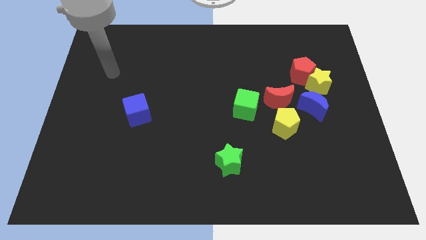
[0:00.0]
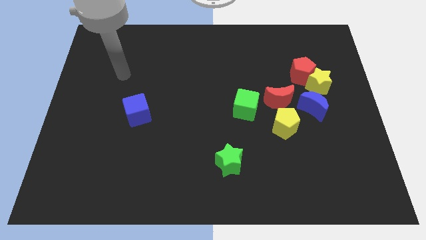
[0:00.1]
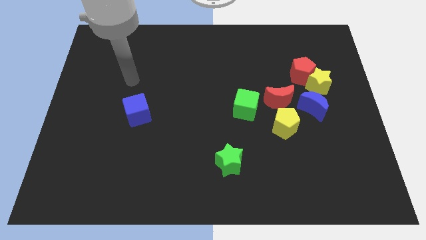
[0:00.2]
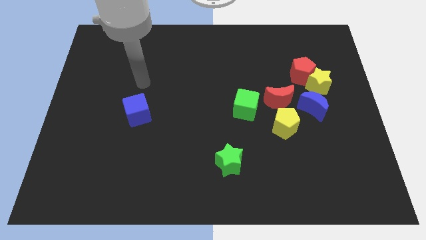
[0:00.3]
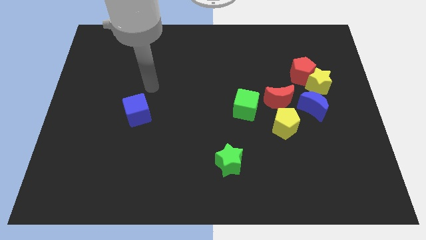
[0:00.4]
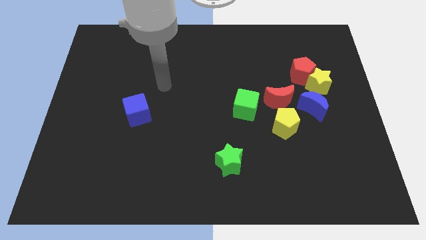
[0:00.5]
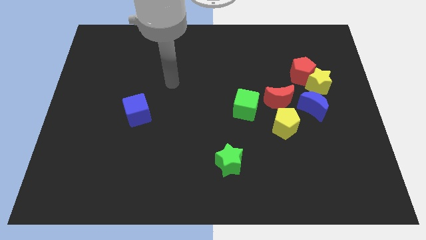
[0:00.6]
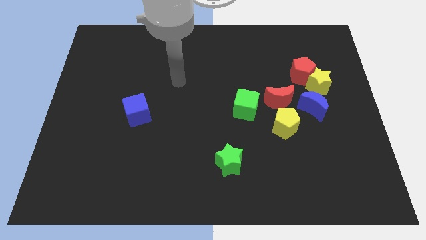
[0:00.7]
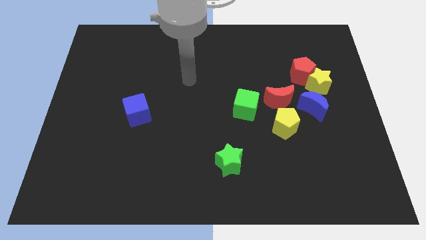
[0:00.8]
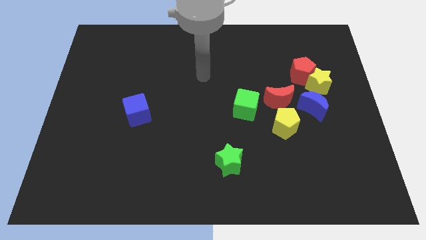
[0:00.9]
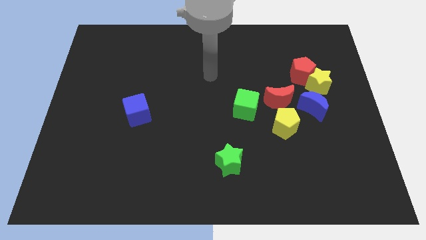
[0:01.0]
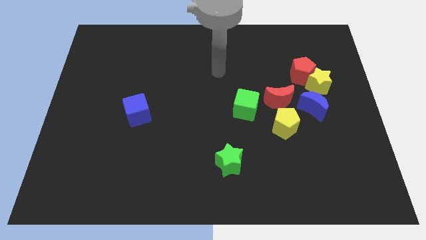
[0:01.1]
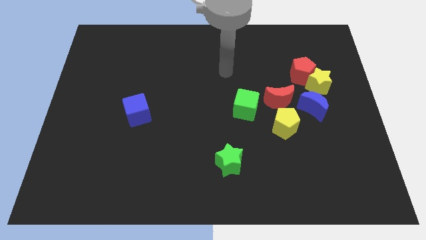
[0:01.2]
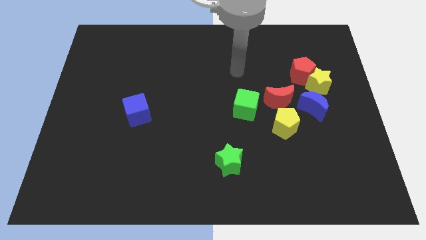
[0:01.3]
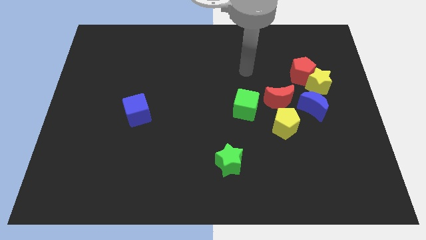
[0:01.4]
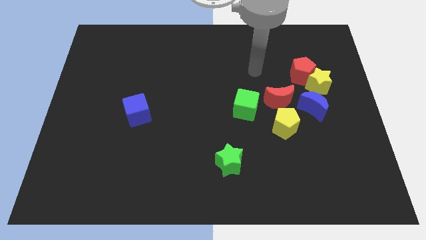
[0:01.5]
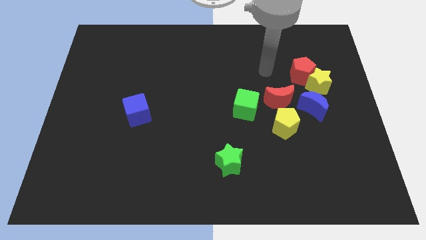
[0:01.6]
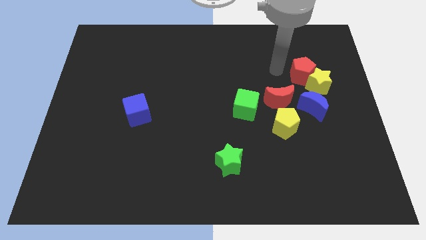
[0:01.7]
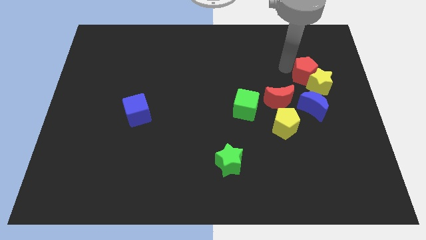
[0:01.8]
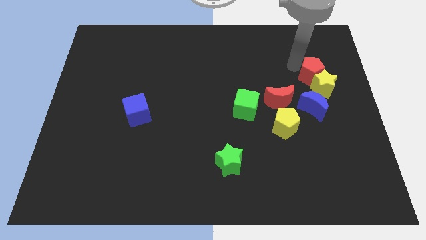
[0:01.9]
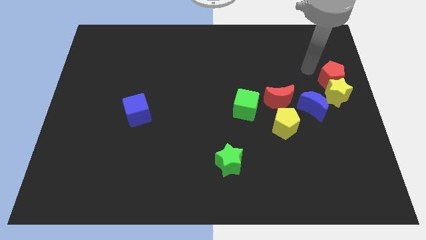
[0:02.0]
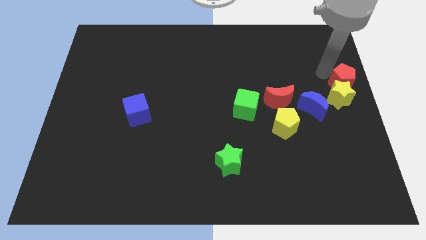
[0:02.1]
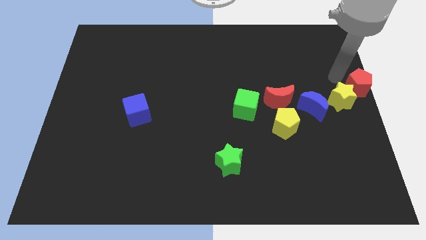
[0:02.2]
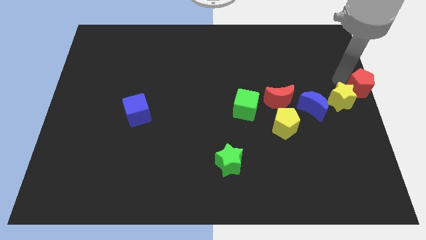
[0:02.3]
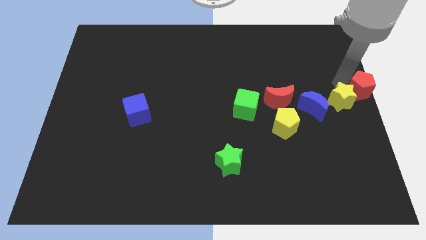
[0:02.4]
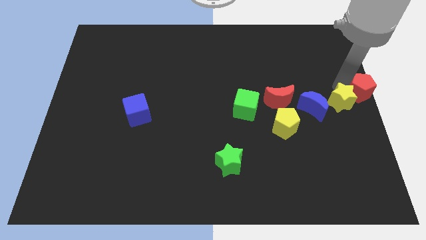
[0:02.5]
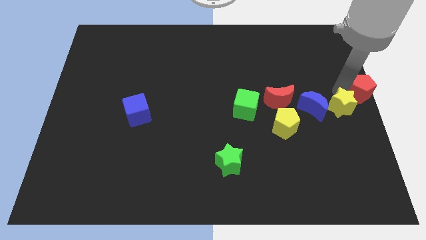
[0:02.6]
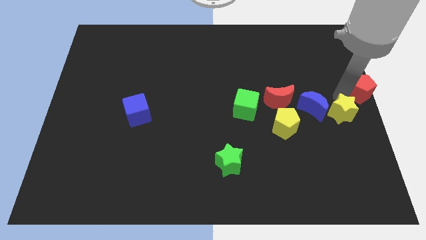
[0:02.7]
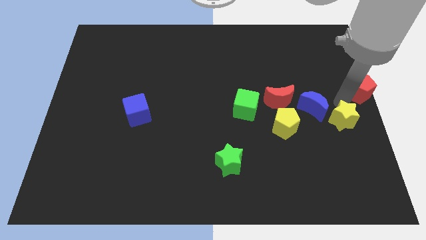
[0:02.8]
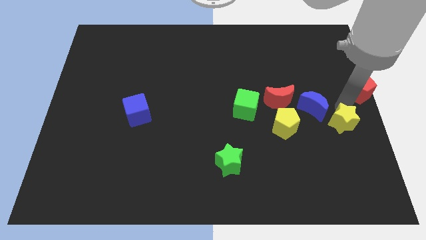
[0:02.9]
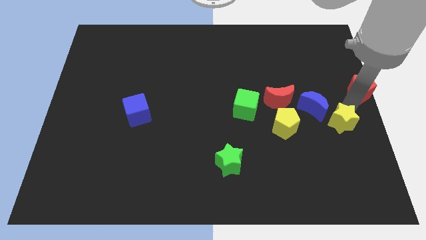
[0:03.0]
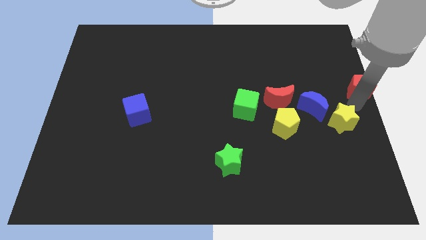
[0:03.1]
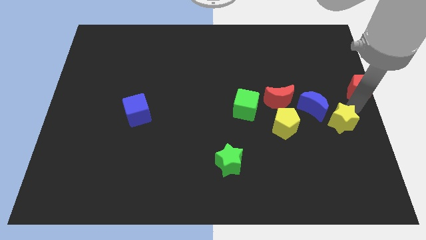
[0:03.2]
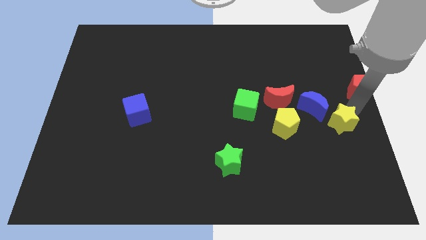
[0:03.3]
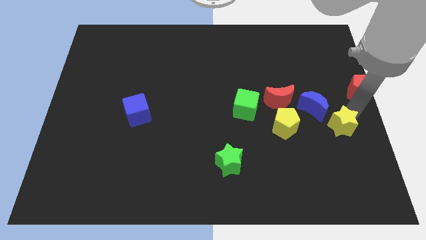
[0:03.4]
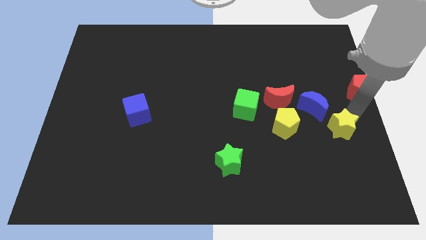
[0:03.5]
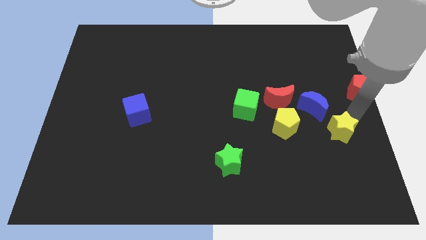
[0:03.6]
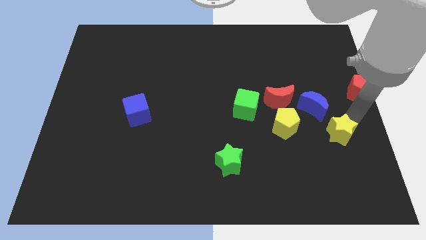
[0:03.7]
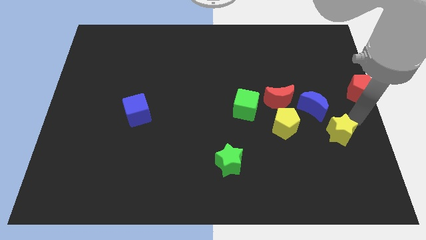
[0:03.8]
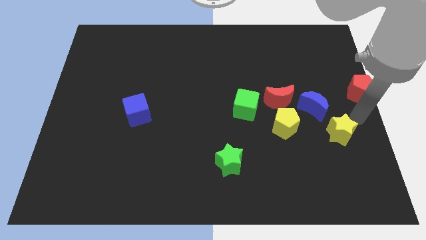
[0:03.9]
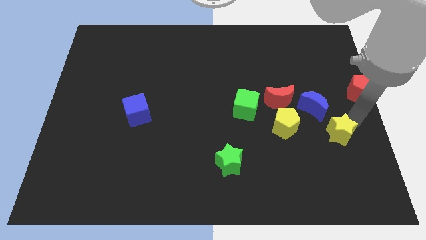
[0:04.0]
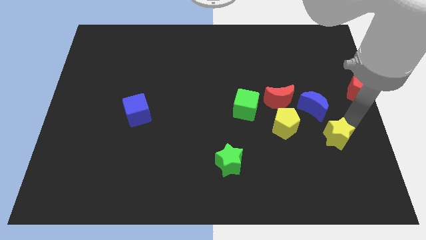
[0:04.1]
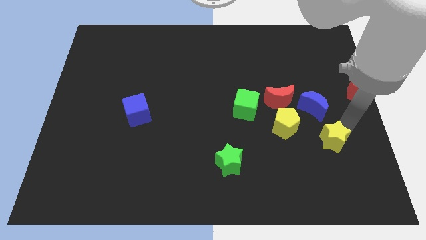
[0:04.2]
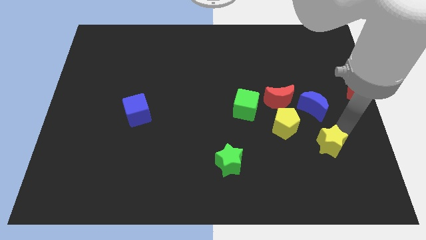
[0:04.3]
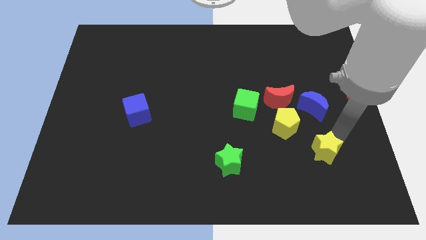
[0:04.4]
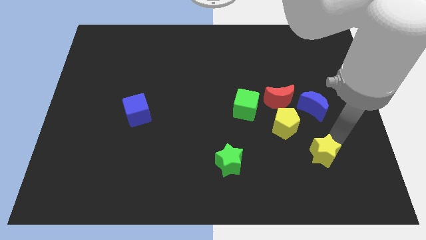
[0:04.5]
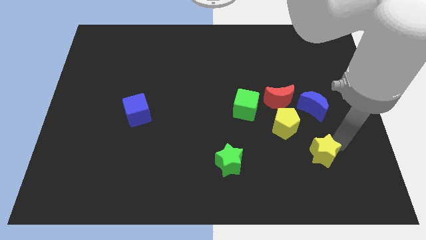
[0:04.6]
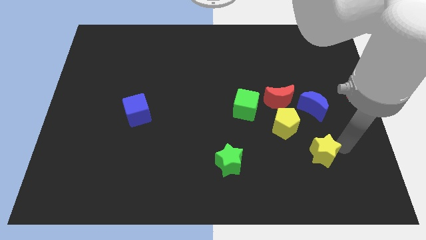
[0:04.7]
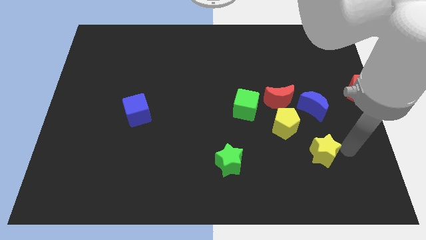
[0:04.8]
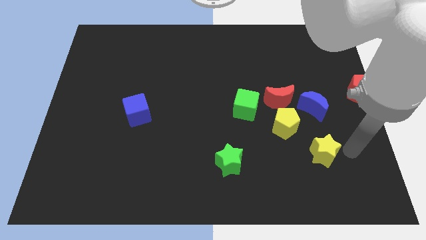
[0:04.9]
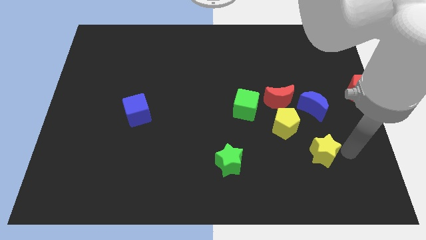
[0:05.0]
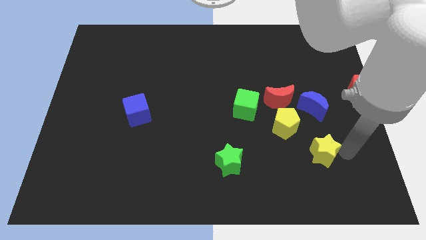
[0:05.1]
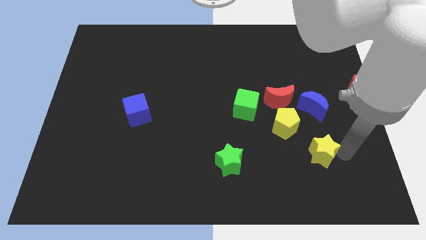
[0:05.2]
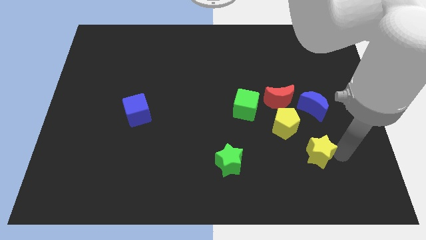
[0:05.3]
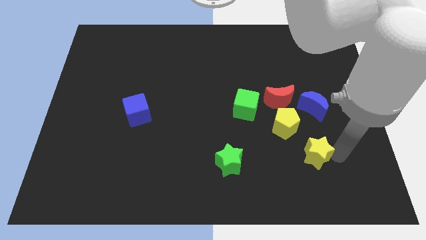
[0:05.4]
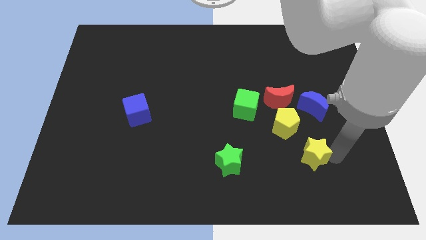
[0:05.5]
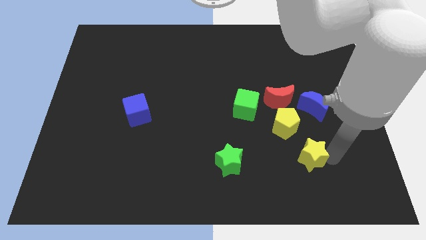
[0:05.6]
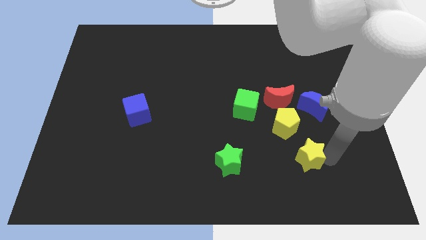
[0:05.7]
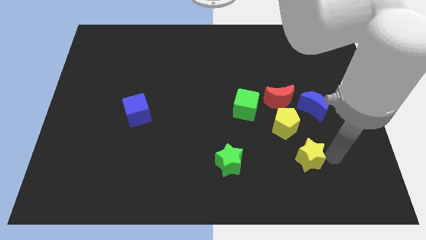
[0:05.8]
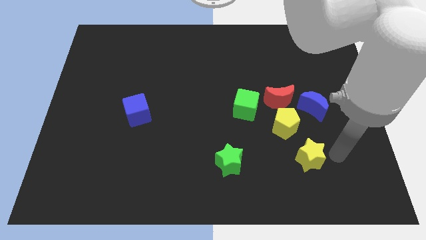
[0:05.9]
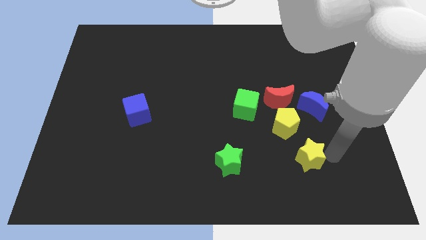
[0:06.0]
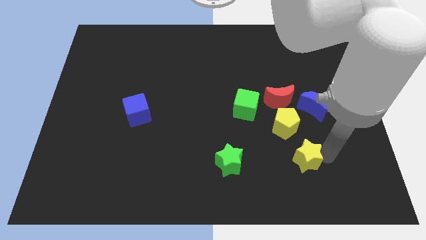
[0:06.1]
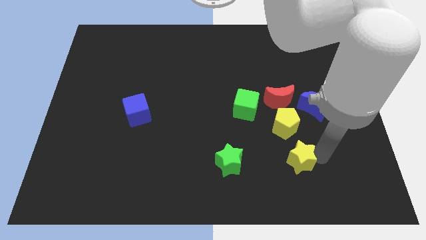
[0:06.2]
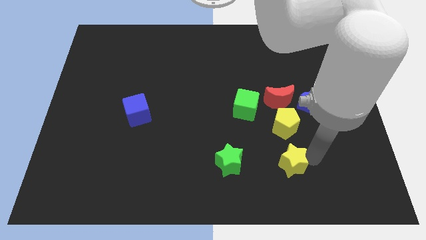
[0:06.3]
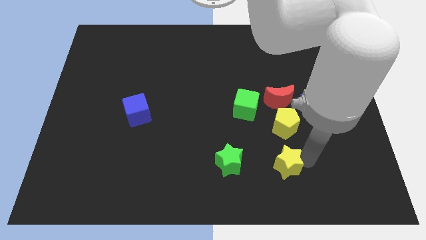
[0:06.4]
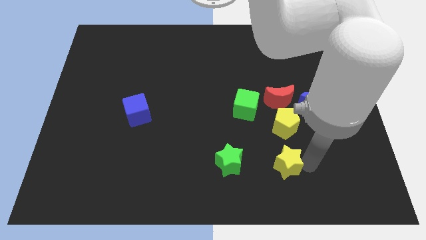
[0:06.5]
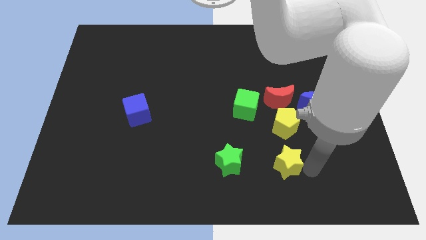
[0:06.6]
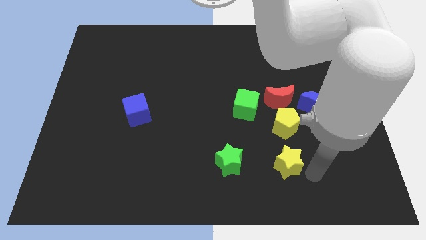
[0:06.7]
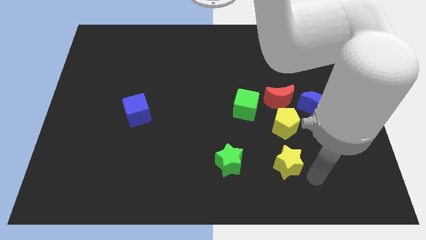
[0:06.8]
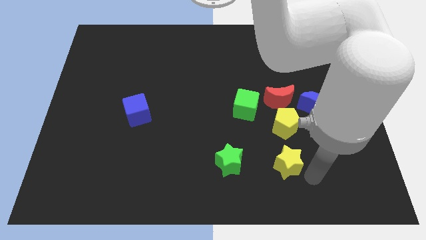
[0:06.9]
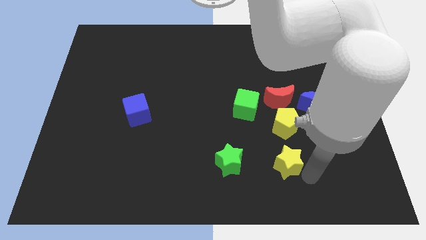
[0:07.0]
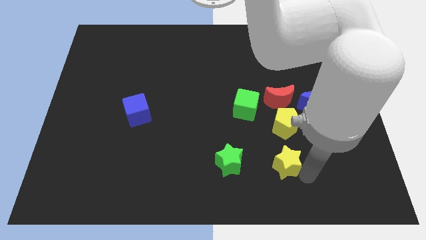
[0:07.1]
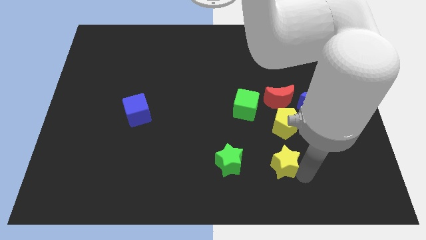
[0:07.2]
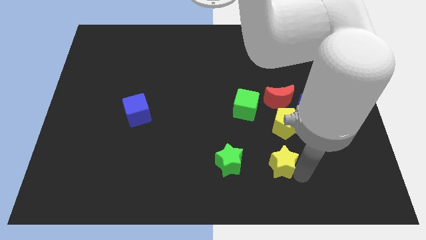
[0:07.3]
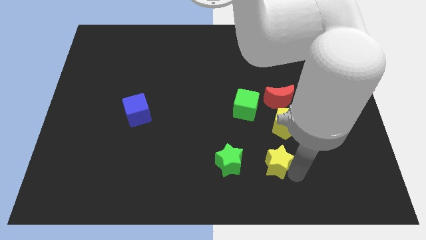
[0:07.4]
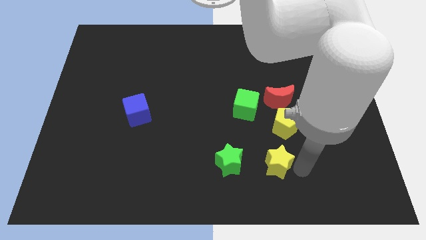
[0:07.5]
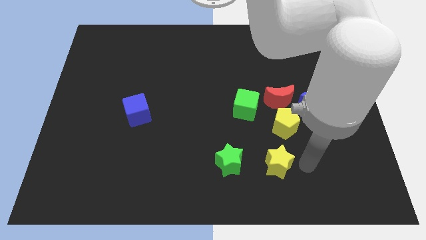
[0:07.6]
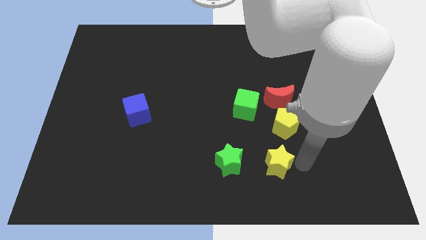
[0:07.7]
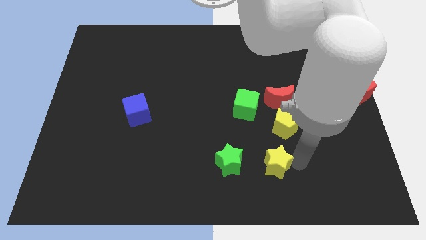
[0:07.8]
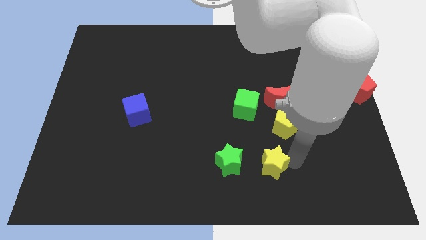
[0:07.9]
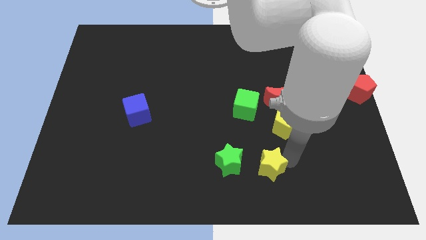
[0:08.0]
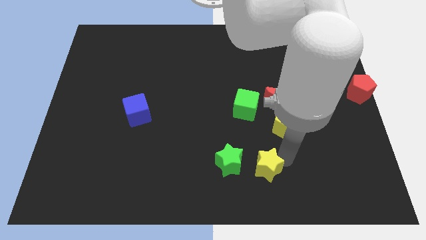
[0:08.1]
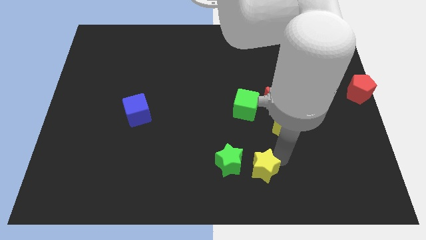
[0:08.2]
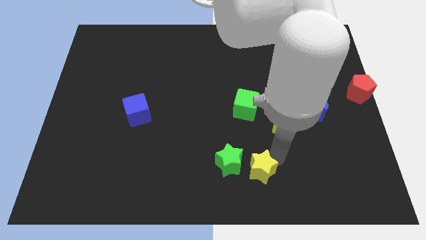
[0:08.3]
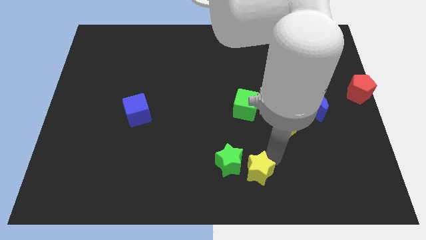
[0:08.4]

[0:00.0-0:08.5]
slide the yellow star next to the green star
